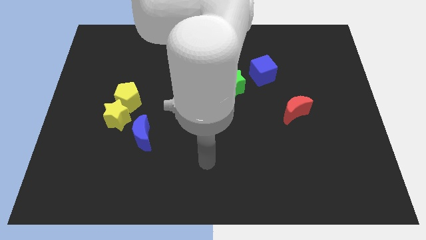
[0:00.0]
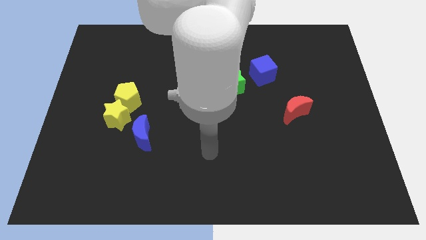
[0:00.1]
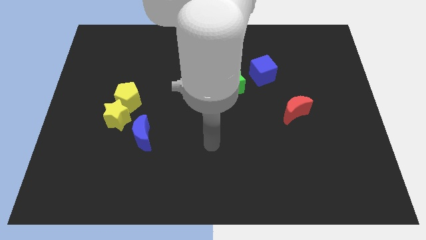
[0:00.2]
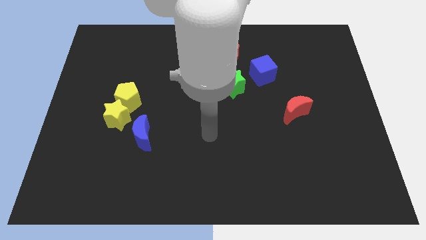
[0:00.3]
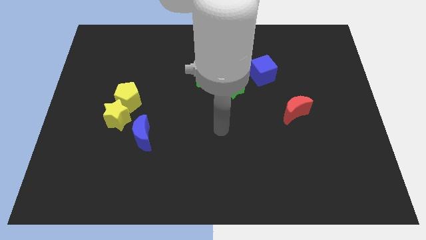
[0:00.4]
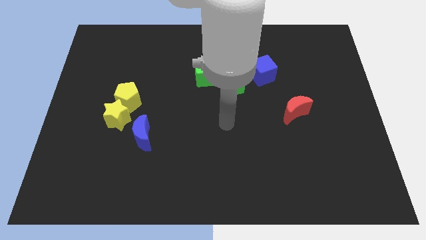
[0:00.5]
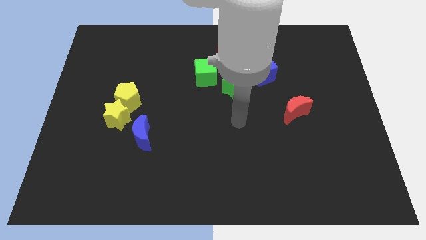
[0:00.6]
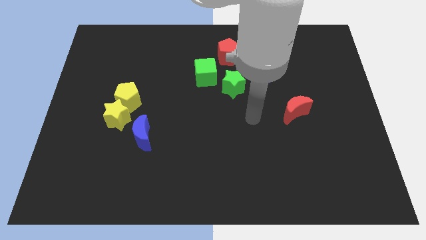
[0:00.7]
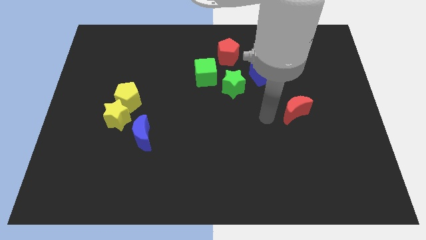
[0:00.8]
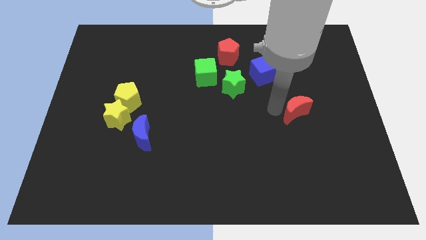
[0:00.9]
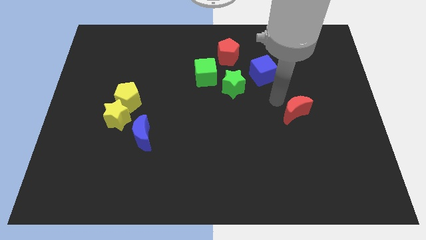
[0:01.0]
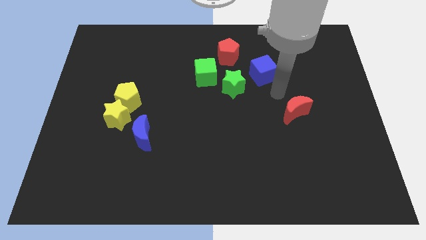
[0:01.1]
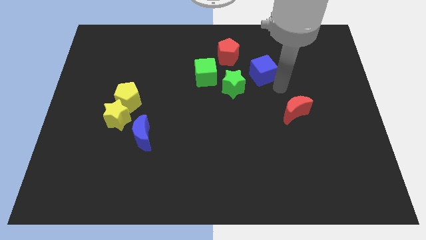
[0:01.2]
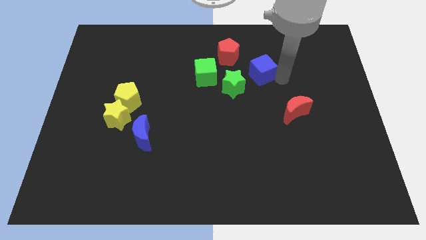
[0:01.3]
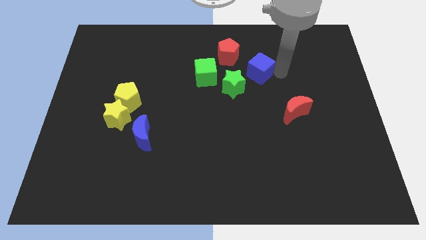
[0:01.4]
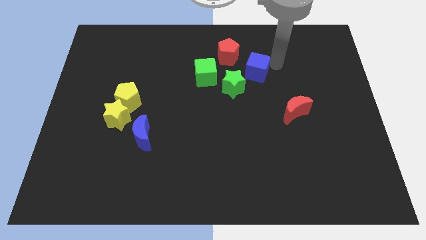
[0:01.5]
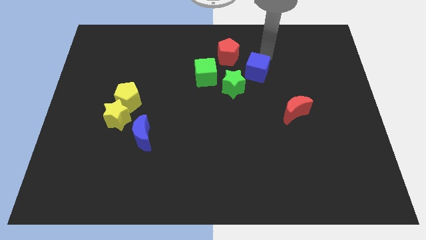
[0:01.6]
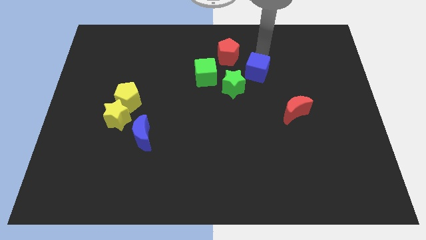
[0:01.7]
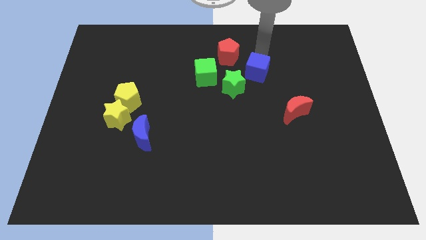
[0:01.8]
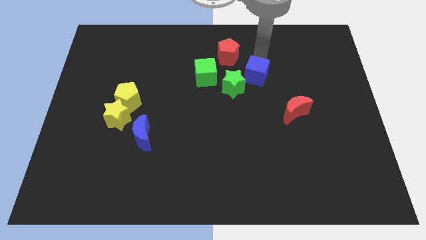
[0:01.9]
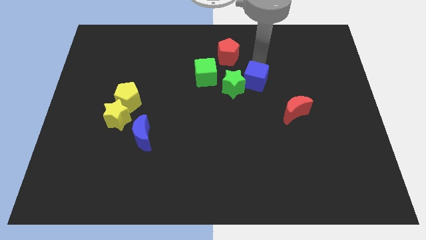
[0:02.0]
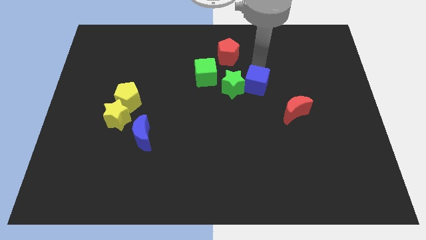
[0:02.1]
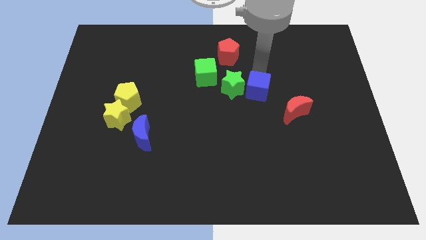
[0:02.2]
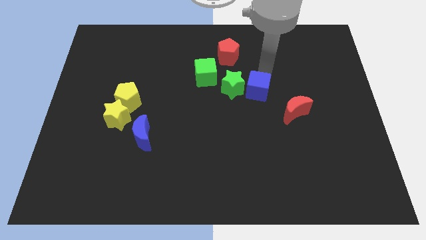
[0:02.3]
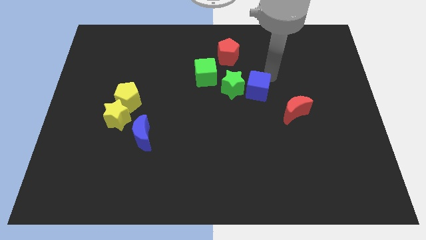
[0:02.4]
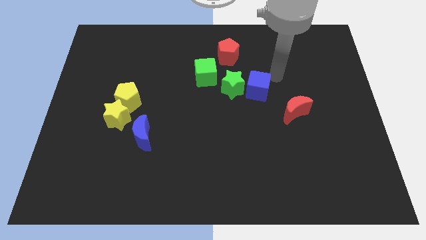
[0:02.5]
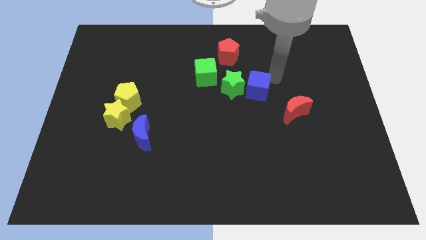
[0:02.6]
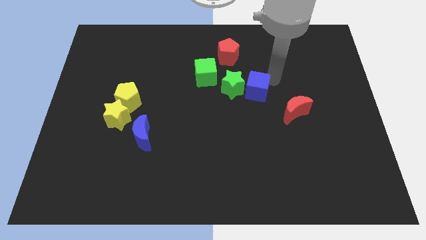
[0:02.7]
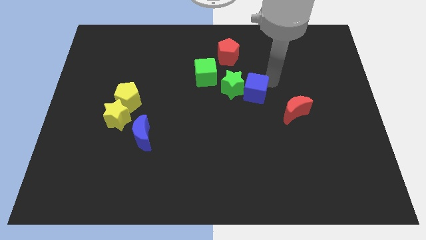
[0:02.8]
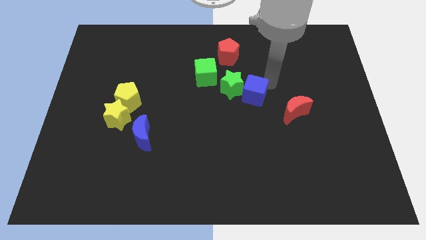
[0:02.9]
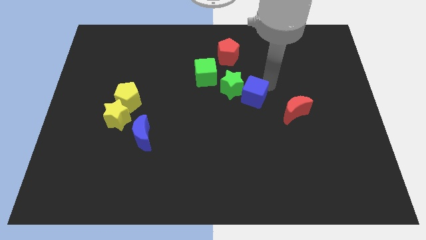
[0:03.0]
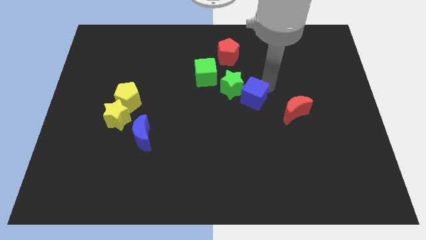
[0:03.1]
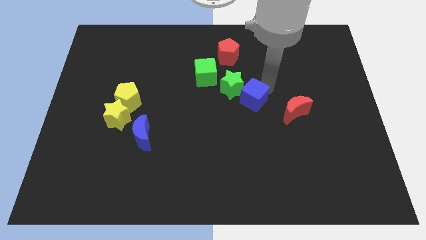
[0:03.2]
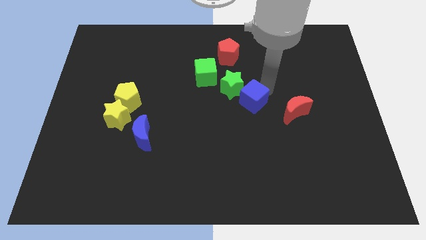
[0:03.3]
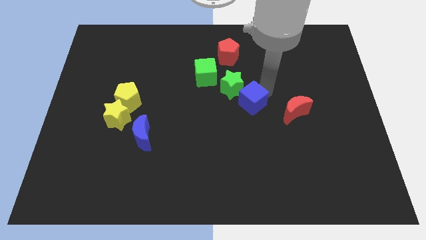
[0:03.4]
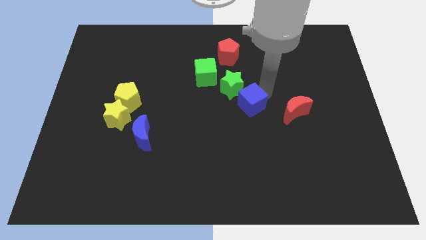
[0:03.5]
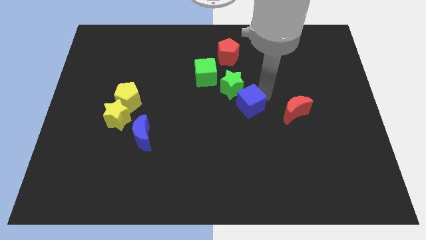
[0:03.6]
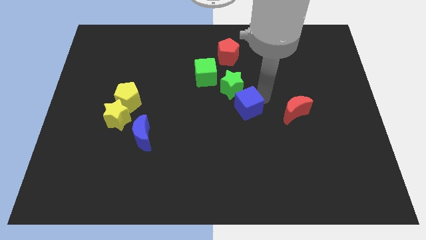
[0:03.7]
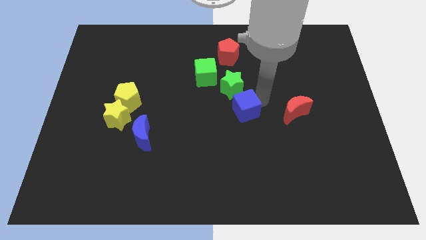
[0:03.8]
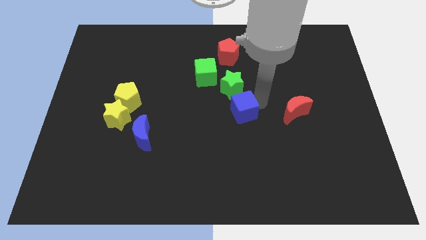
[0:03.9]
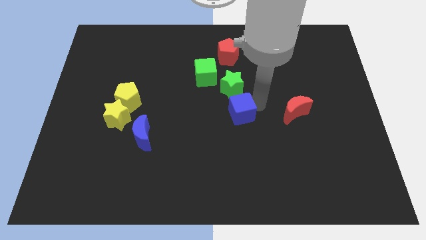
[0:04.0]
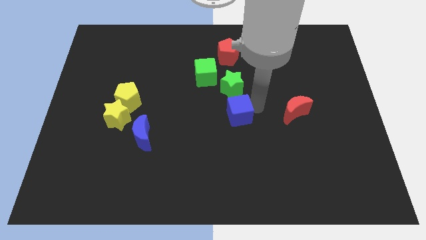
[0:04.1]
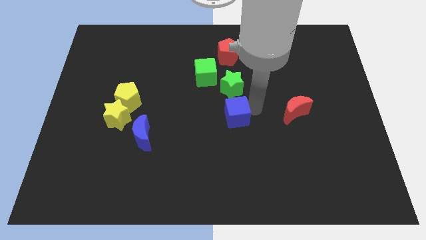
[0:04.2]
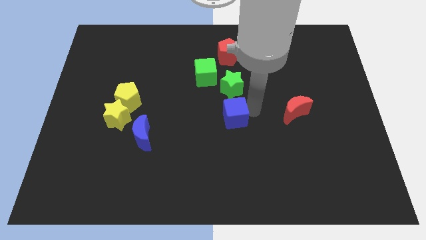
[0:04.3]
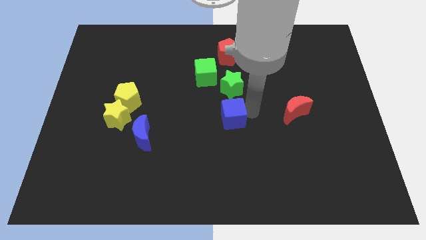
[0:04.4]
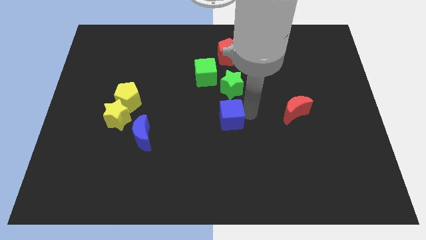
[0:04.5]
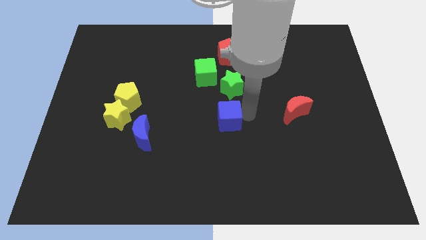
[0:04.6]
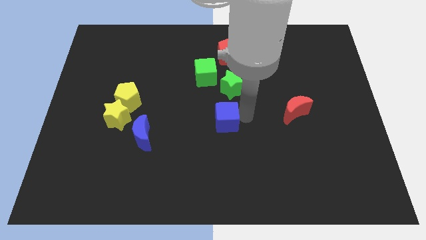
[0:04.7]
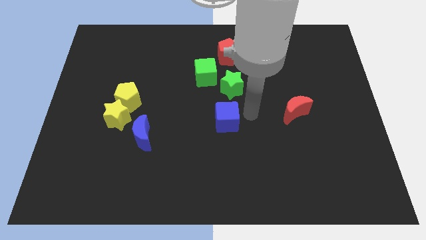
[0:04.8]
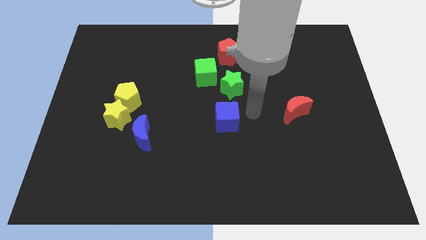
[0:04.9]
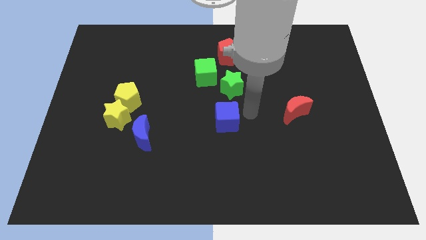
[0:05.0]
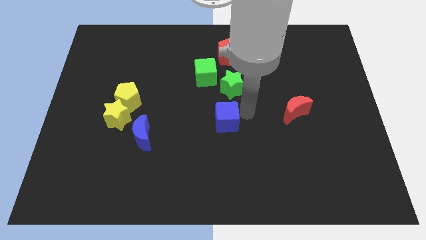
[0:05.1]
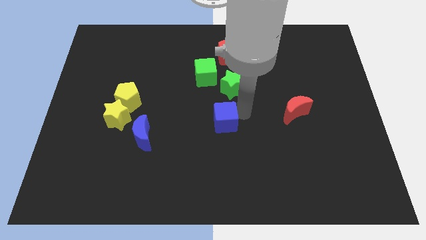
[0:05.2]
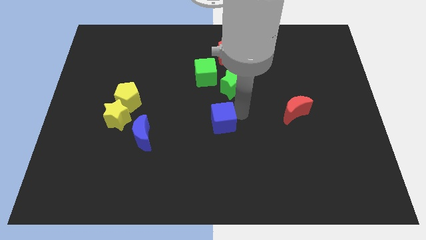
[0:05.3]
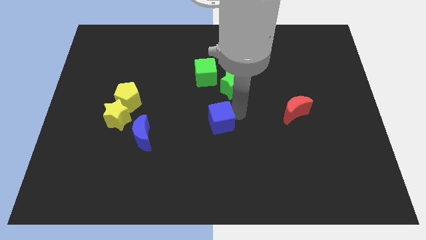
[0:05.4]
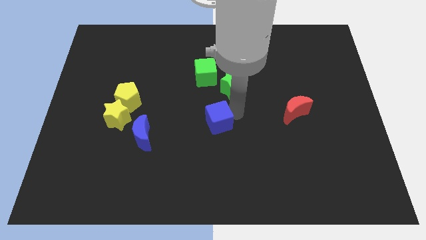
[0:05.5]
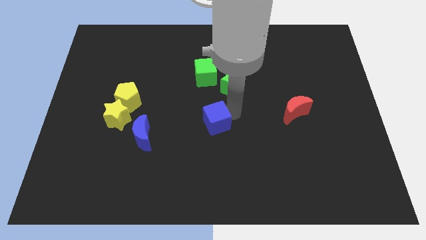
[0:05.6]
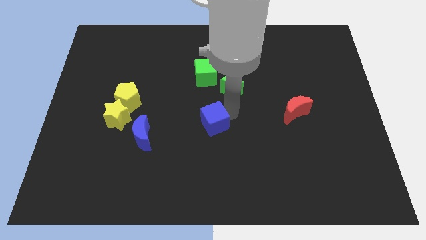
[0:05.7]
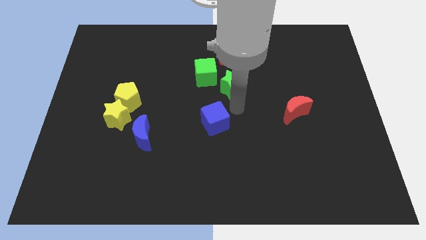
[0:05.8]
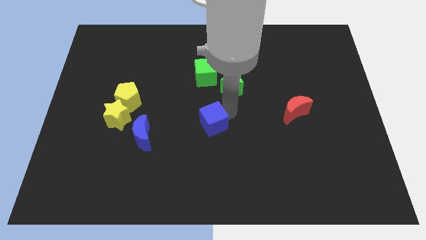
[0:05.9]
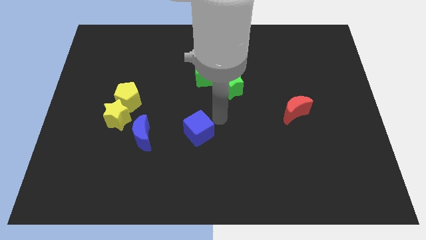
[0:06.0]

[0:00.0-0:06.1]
slide the blue cube downwards and left diagonally

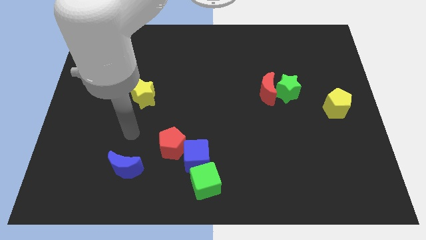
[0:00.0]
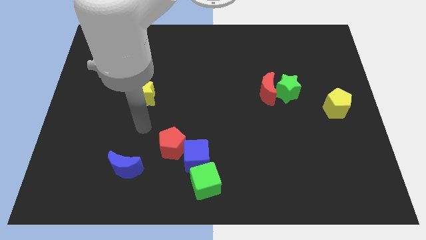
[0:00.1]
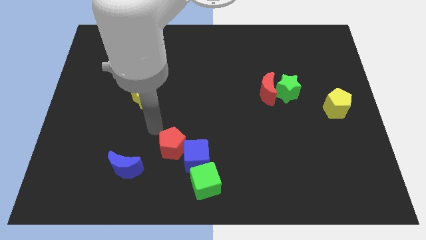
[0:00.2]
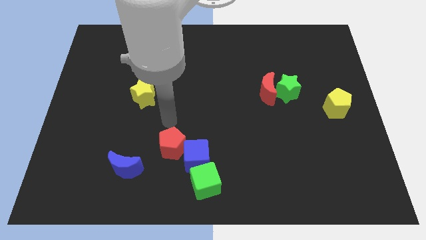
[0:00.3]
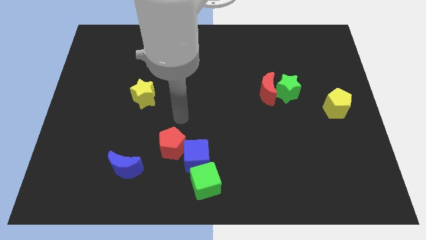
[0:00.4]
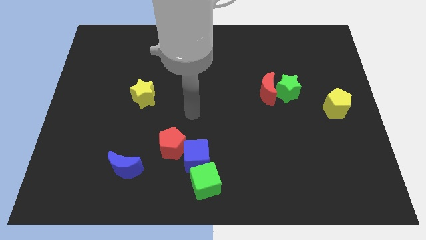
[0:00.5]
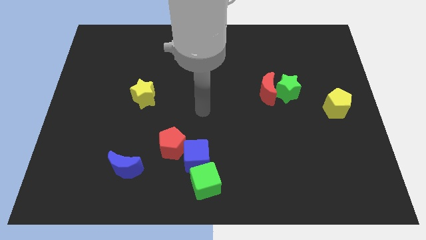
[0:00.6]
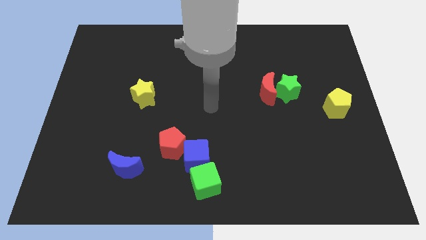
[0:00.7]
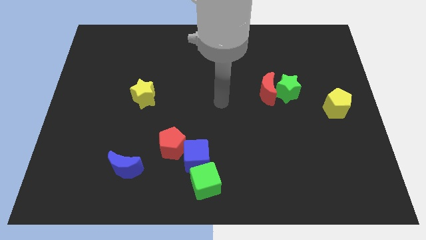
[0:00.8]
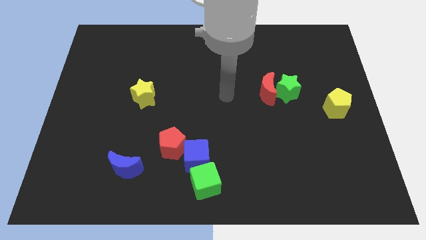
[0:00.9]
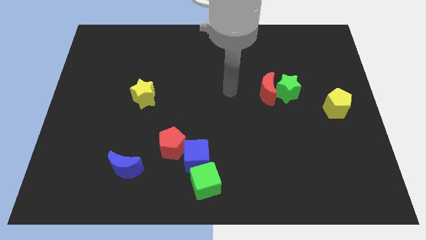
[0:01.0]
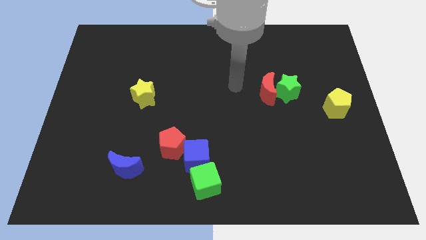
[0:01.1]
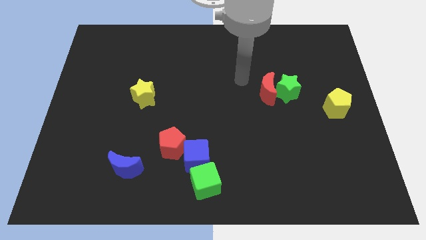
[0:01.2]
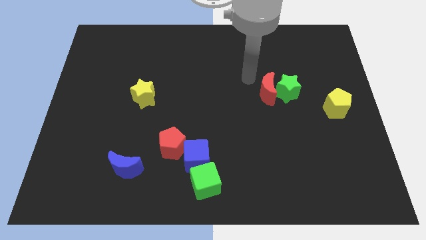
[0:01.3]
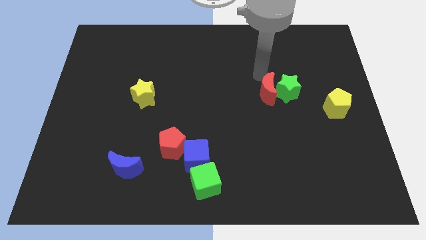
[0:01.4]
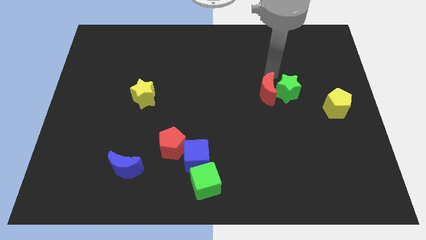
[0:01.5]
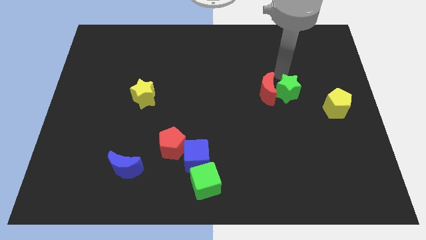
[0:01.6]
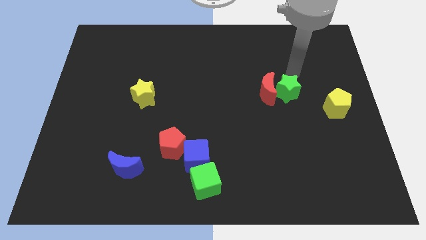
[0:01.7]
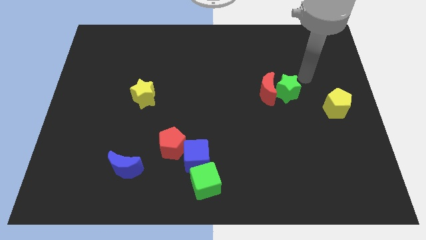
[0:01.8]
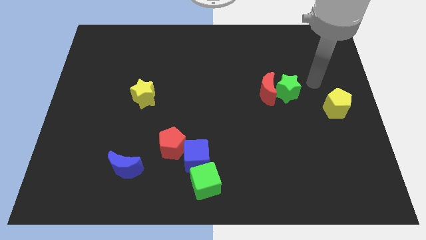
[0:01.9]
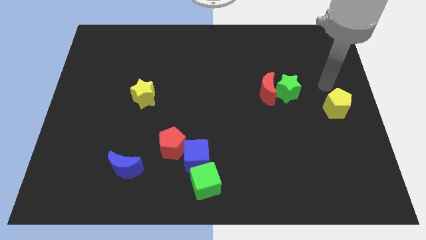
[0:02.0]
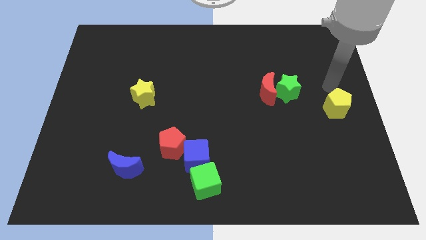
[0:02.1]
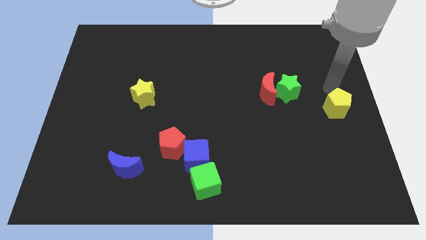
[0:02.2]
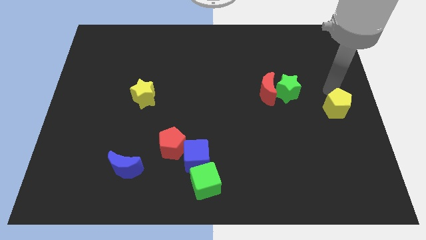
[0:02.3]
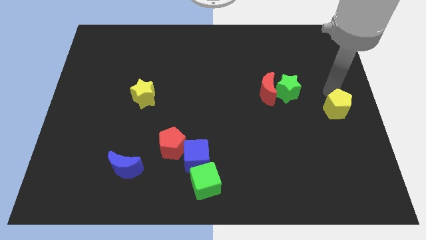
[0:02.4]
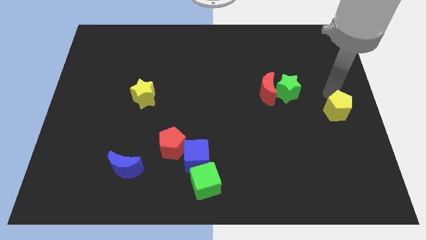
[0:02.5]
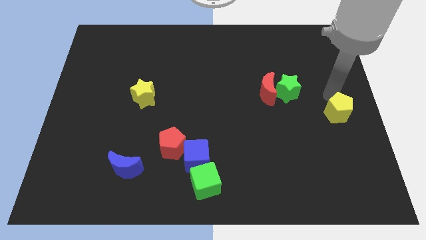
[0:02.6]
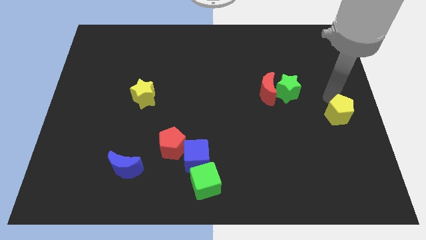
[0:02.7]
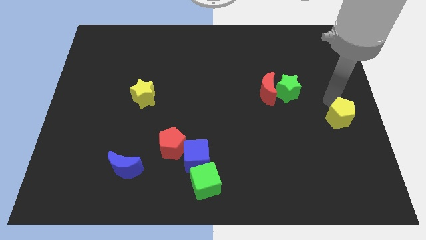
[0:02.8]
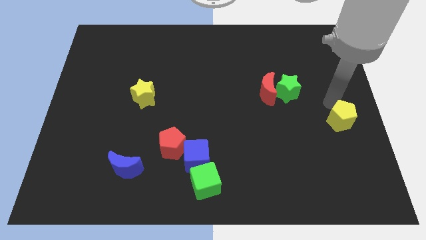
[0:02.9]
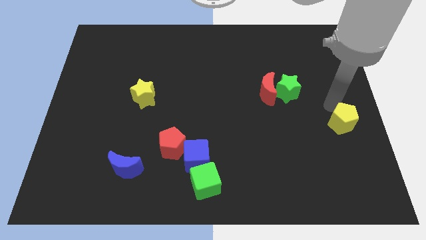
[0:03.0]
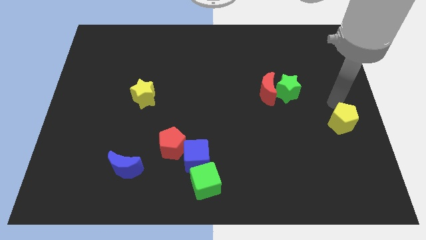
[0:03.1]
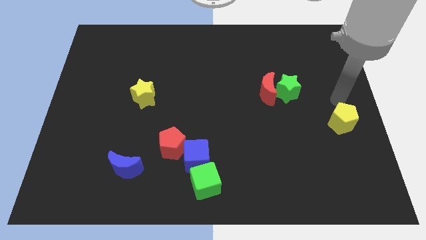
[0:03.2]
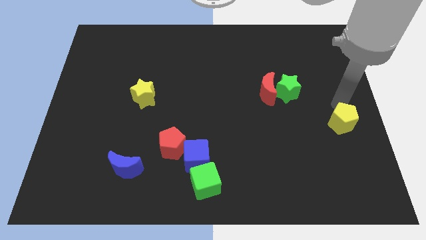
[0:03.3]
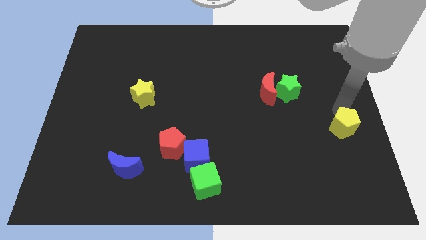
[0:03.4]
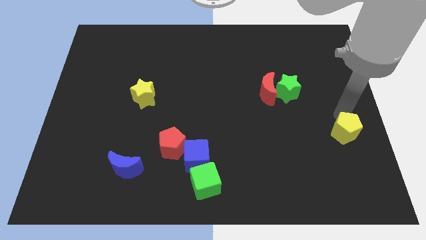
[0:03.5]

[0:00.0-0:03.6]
move the yellow pentagon slightly downwards
